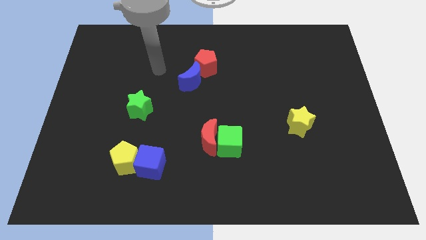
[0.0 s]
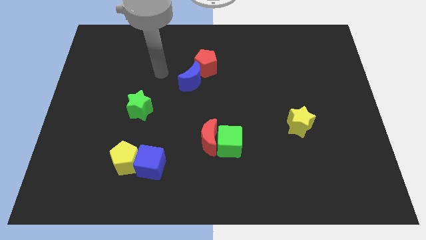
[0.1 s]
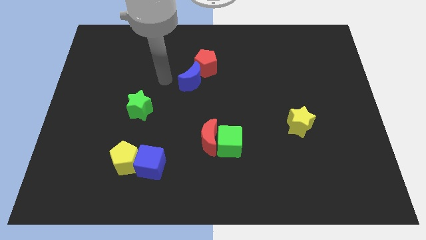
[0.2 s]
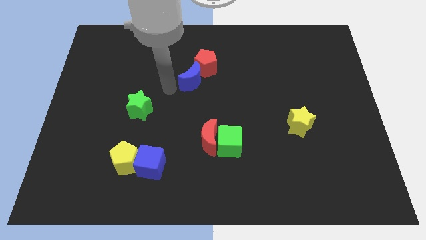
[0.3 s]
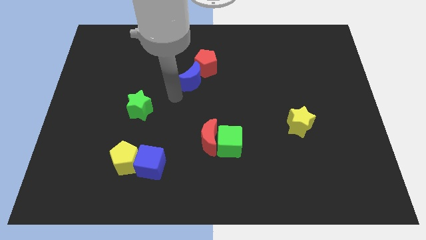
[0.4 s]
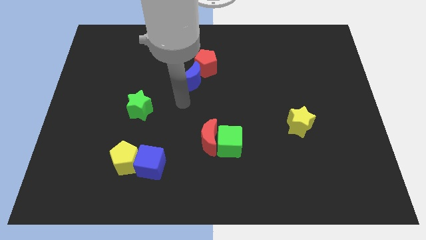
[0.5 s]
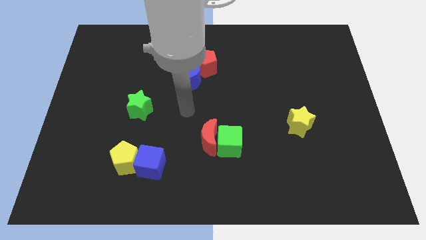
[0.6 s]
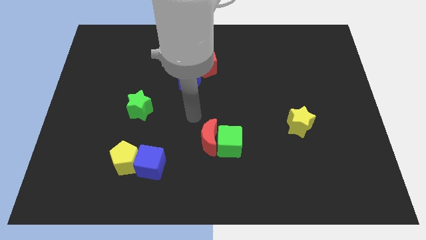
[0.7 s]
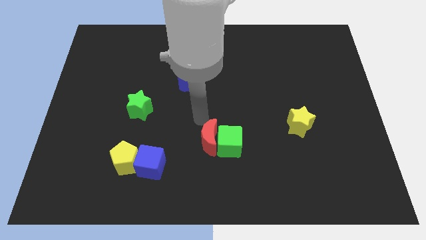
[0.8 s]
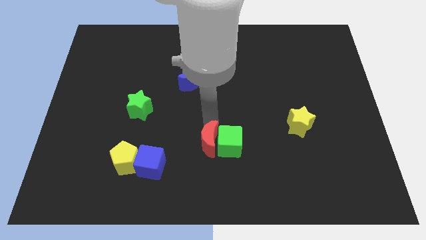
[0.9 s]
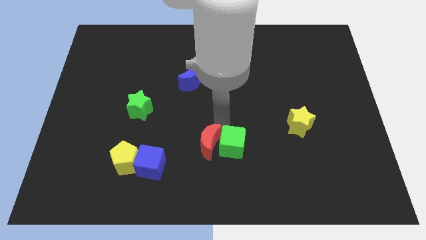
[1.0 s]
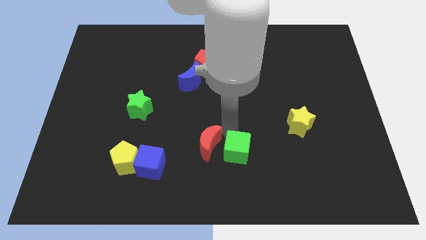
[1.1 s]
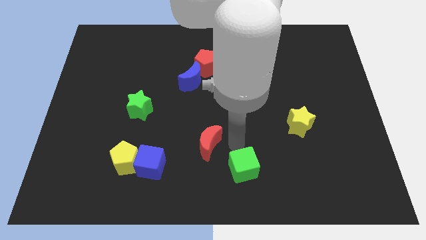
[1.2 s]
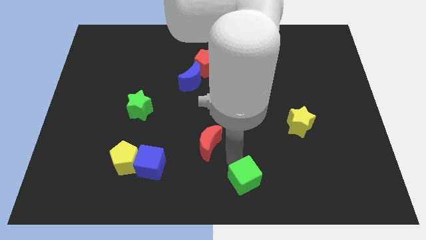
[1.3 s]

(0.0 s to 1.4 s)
pull the red moon apart from the green cube

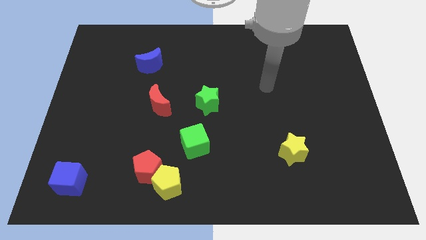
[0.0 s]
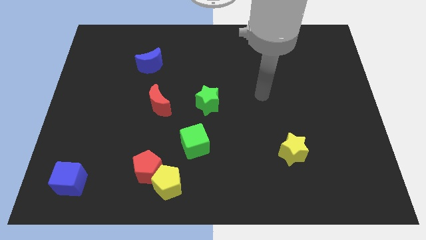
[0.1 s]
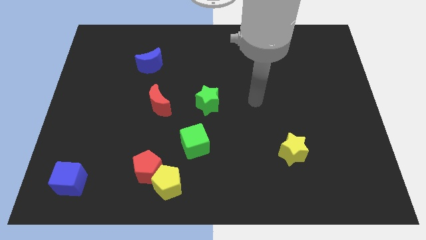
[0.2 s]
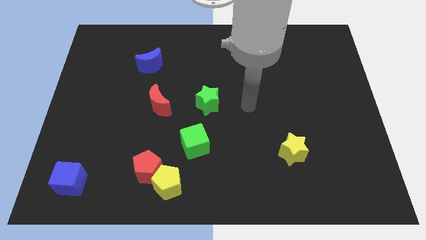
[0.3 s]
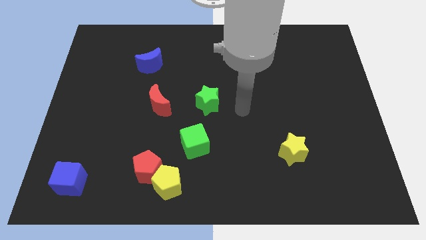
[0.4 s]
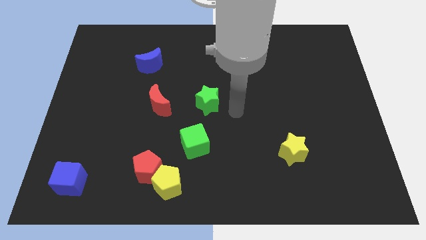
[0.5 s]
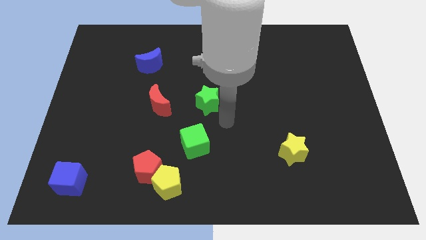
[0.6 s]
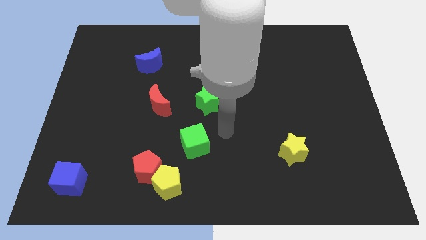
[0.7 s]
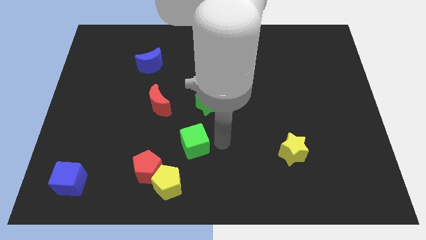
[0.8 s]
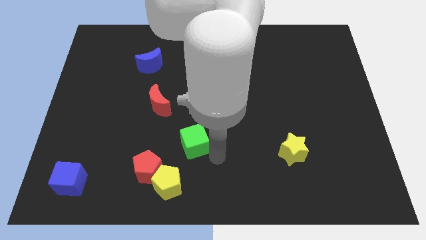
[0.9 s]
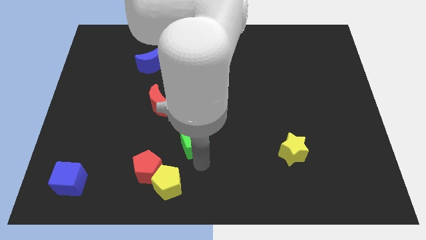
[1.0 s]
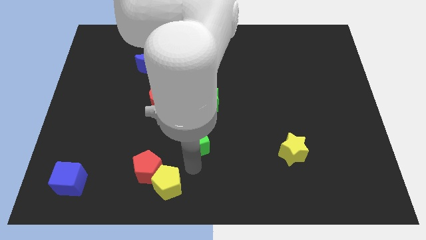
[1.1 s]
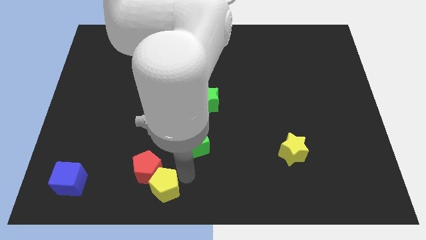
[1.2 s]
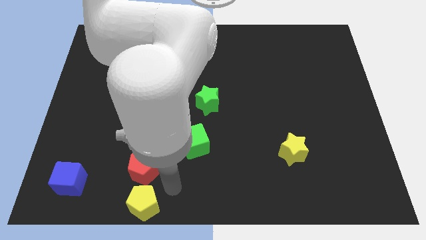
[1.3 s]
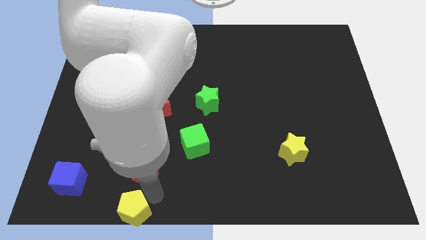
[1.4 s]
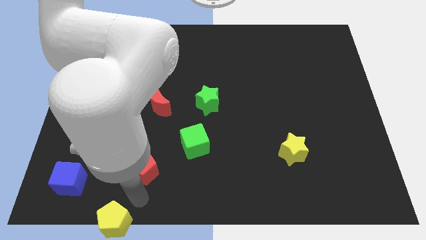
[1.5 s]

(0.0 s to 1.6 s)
separate the red pentagon from the yellow pentagon

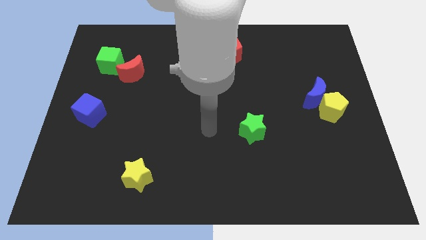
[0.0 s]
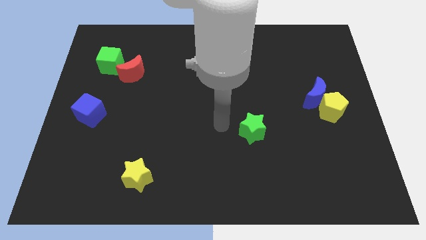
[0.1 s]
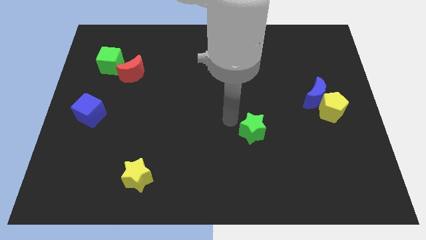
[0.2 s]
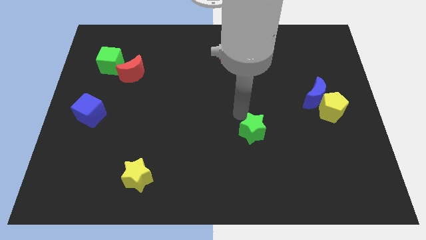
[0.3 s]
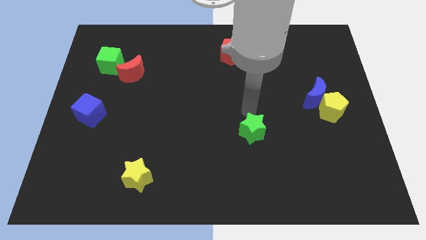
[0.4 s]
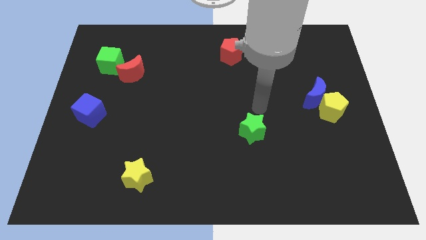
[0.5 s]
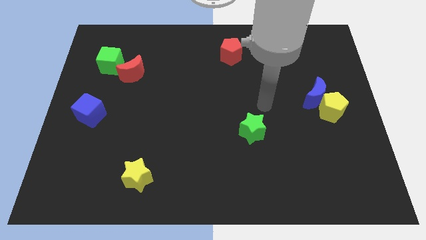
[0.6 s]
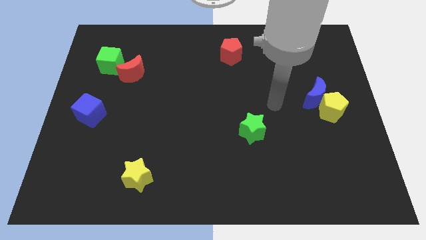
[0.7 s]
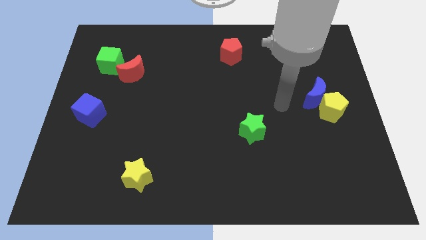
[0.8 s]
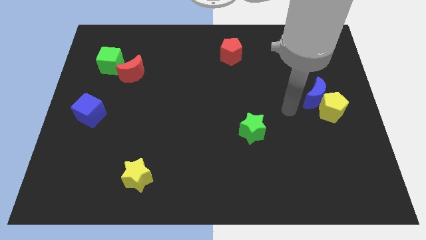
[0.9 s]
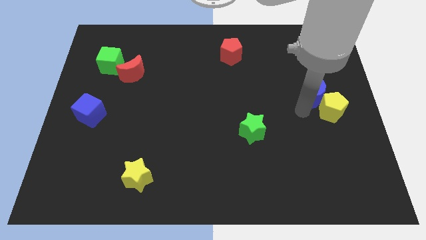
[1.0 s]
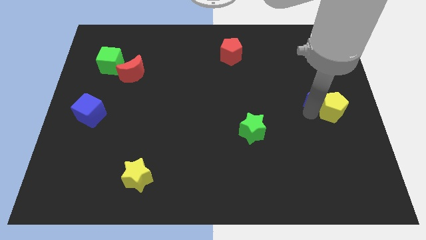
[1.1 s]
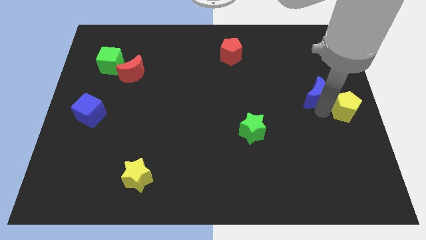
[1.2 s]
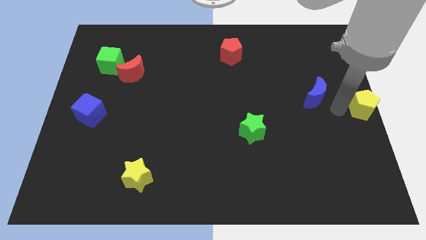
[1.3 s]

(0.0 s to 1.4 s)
move the blue moon away from the yellow pentagon

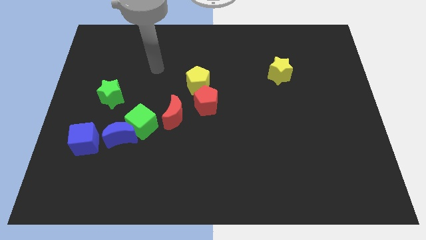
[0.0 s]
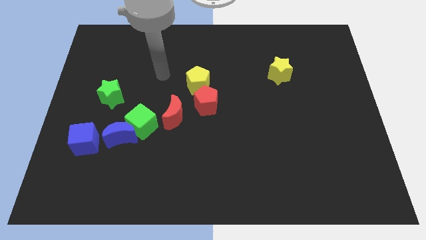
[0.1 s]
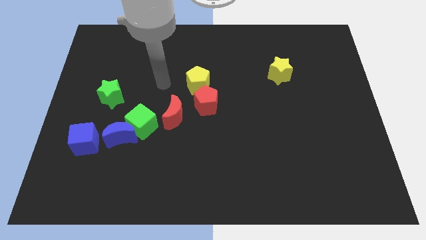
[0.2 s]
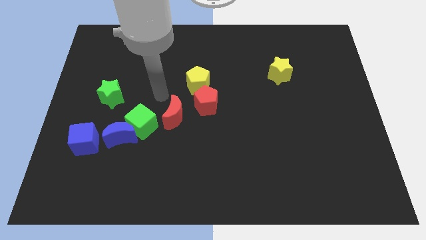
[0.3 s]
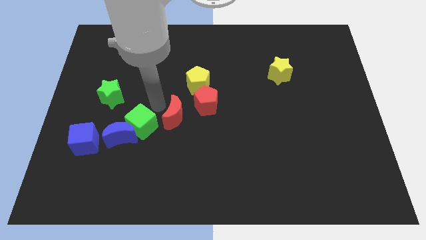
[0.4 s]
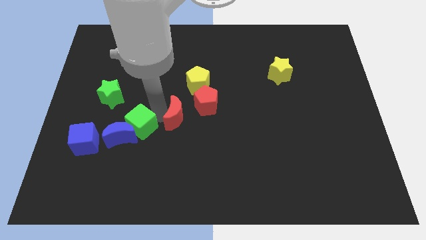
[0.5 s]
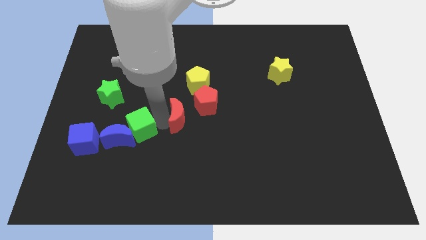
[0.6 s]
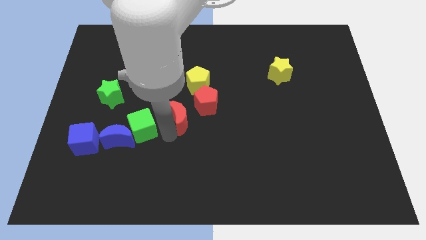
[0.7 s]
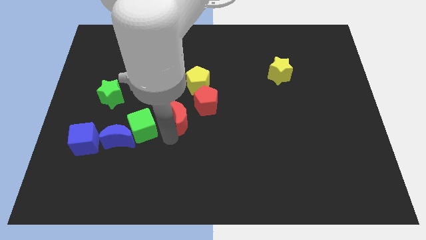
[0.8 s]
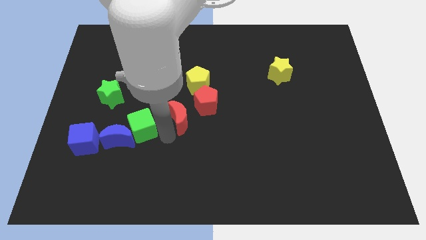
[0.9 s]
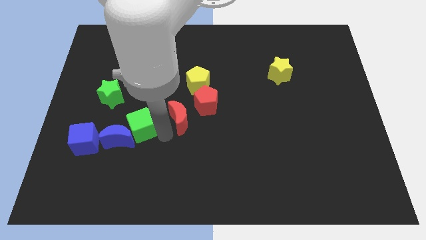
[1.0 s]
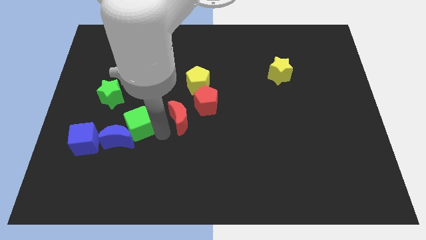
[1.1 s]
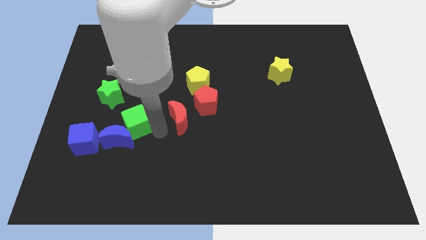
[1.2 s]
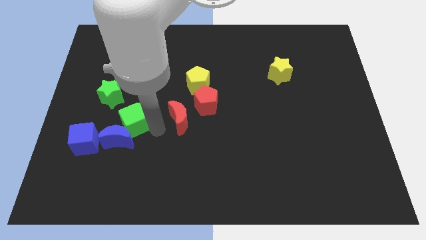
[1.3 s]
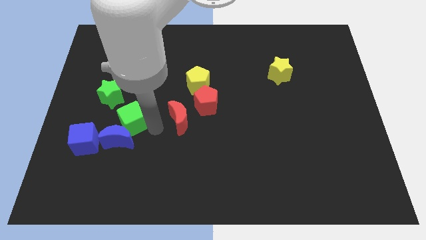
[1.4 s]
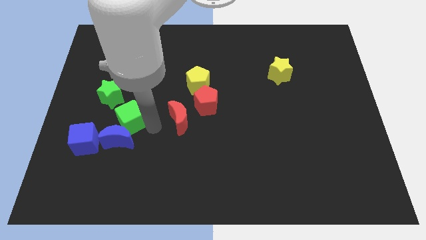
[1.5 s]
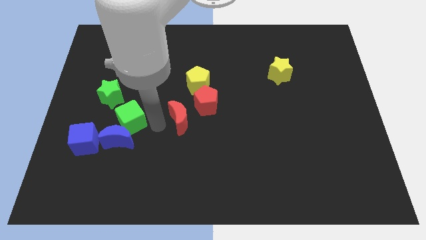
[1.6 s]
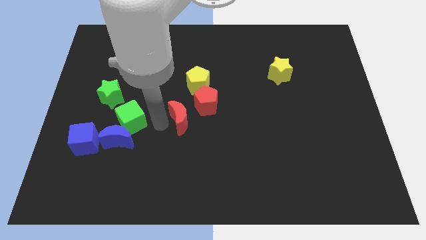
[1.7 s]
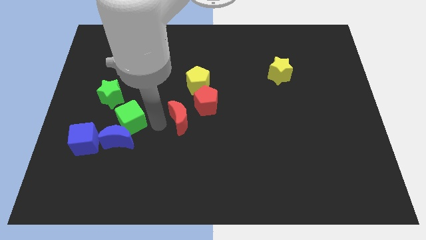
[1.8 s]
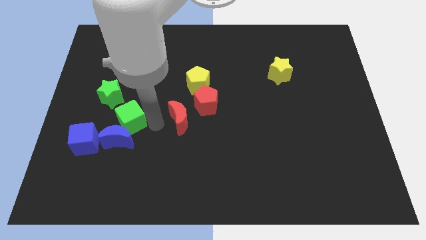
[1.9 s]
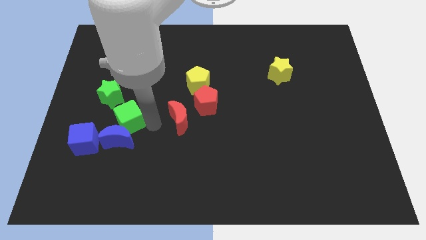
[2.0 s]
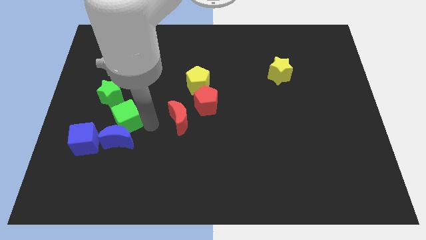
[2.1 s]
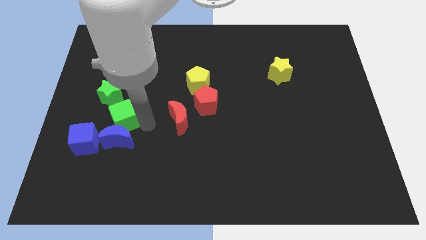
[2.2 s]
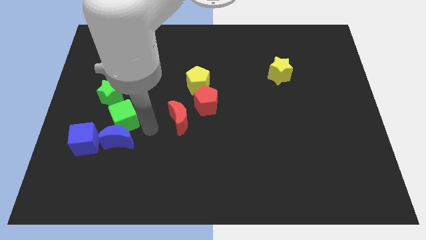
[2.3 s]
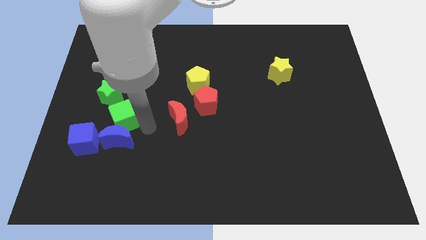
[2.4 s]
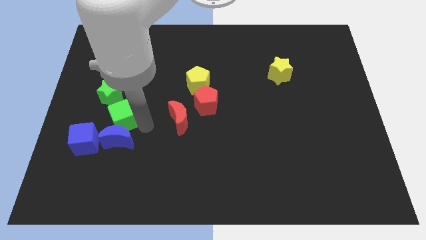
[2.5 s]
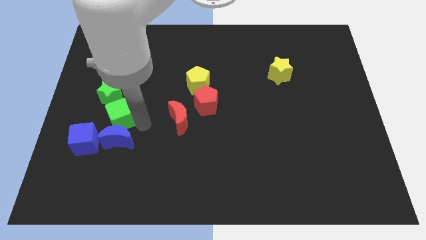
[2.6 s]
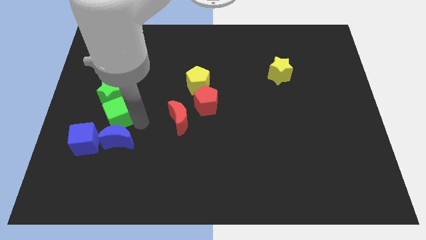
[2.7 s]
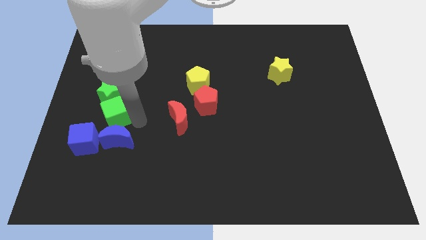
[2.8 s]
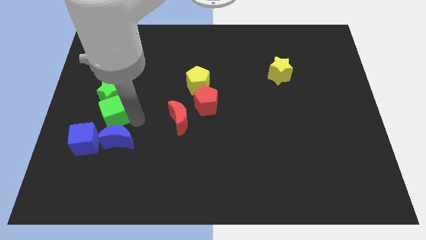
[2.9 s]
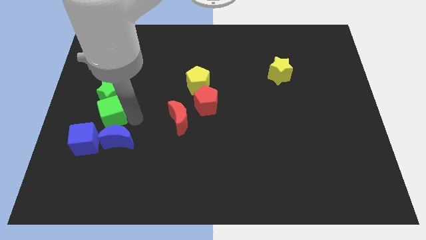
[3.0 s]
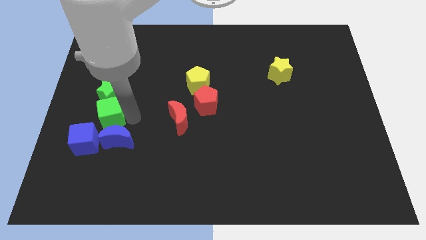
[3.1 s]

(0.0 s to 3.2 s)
separate the green cube from the blue moon and red moon

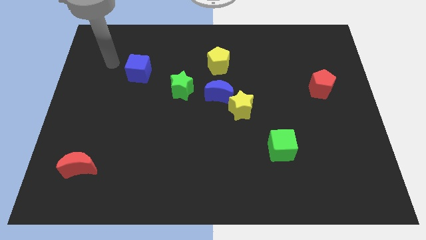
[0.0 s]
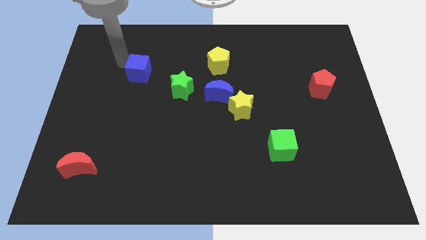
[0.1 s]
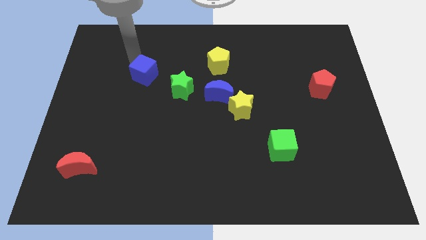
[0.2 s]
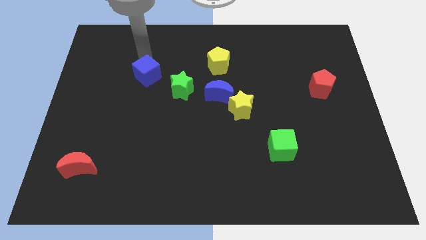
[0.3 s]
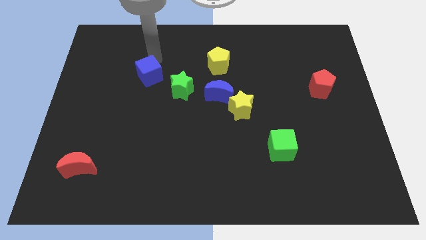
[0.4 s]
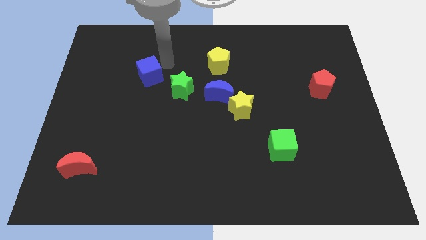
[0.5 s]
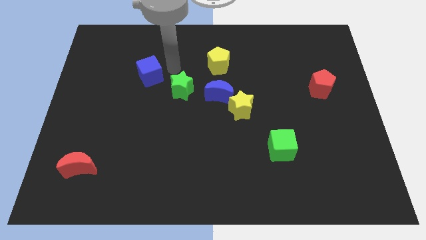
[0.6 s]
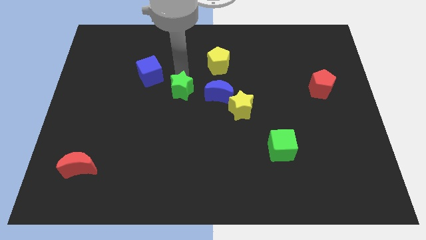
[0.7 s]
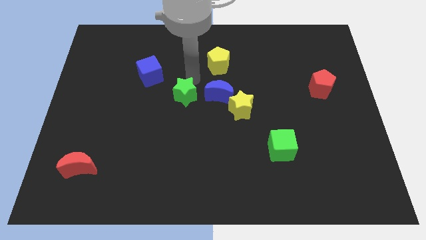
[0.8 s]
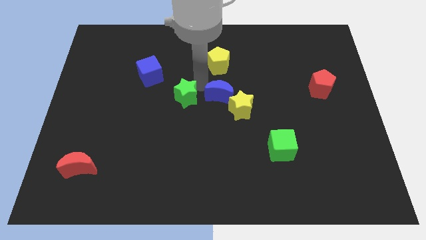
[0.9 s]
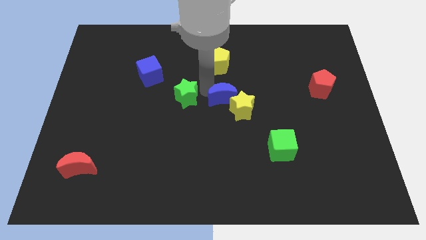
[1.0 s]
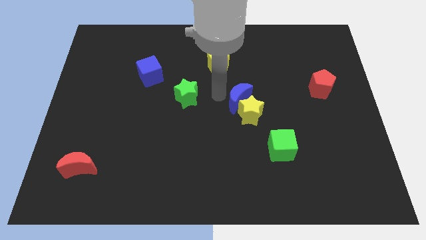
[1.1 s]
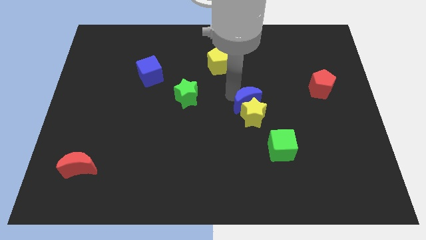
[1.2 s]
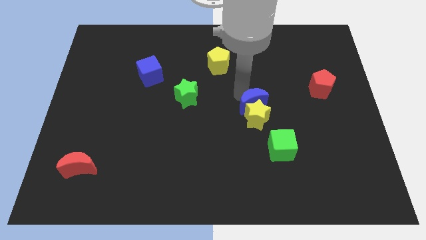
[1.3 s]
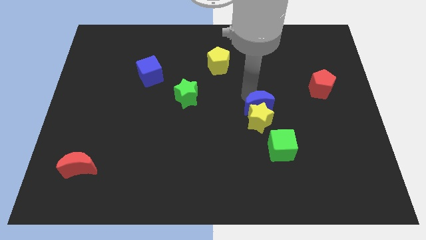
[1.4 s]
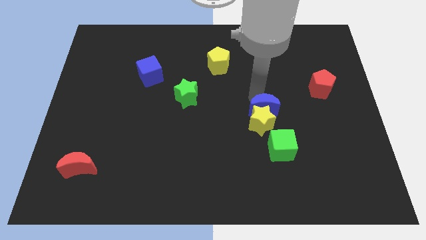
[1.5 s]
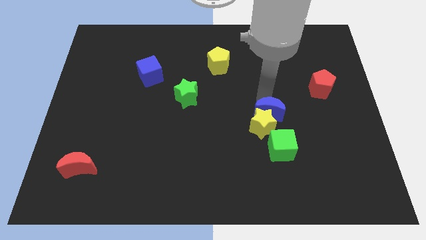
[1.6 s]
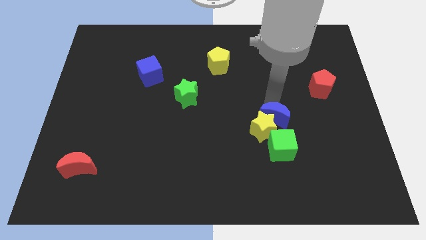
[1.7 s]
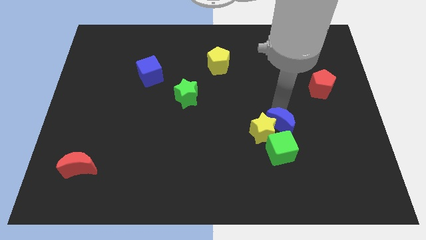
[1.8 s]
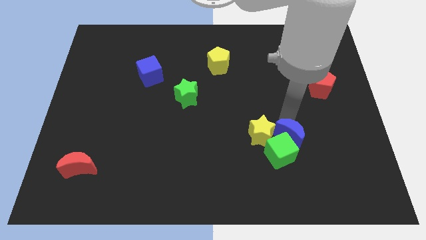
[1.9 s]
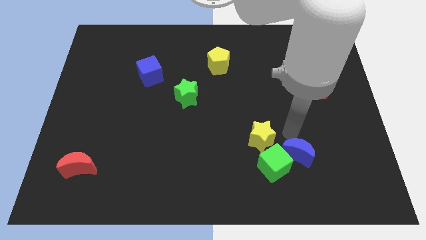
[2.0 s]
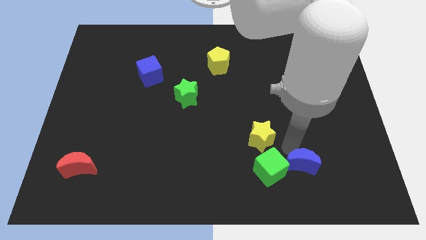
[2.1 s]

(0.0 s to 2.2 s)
pull the yellow star apart from the blue moon
